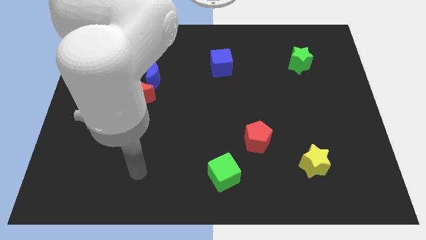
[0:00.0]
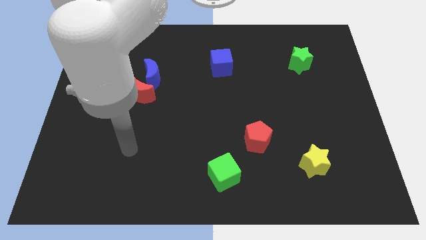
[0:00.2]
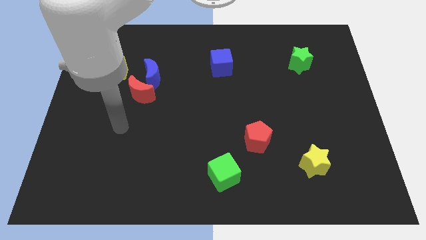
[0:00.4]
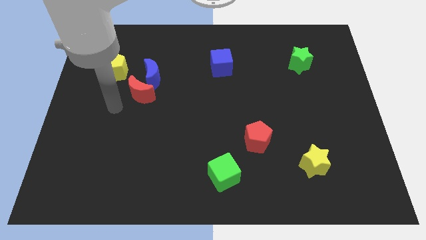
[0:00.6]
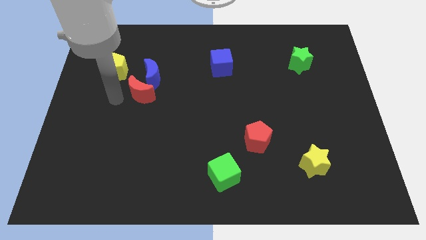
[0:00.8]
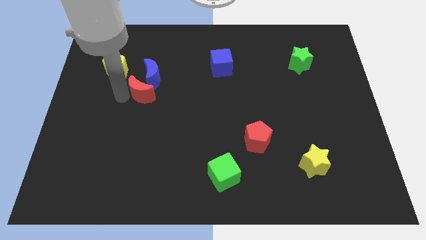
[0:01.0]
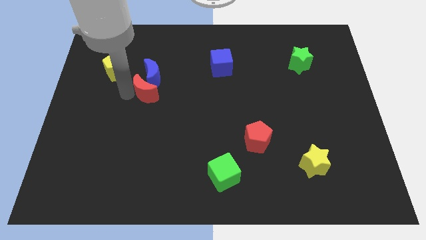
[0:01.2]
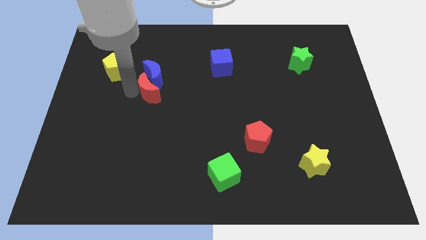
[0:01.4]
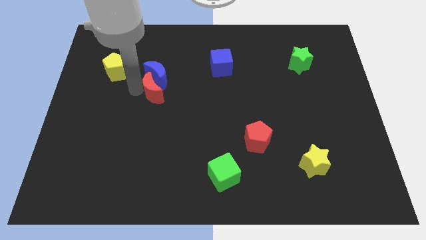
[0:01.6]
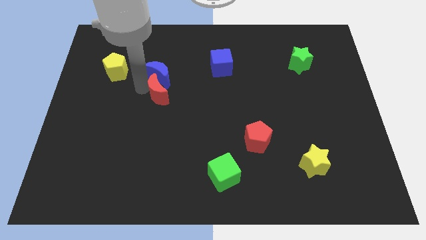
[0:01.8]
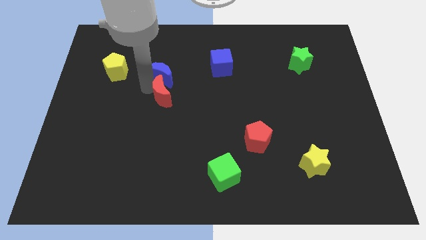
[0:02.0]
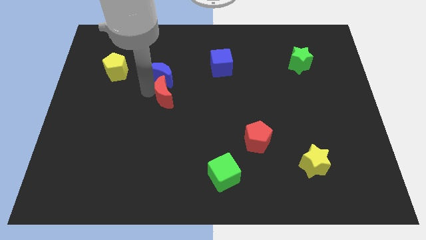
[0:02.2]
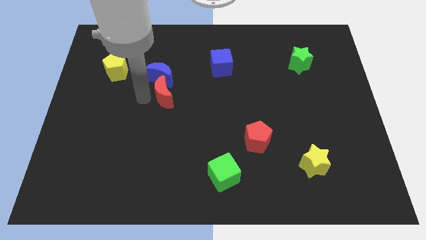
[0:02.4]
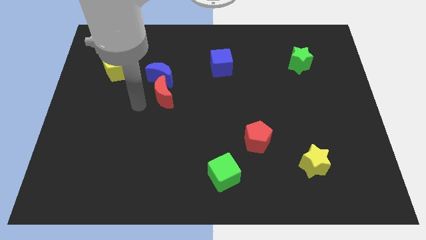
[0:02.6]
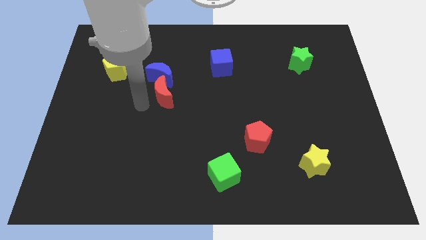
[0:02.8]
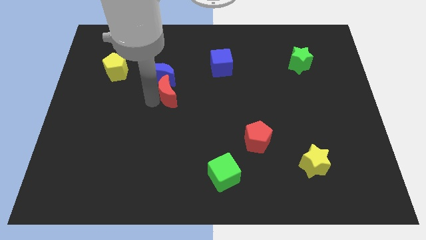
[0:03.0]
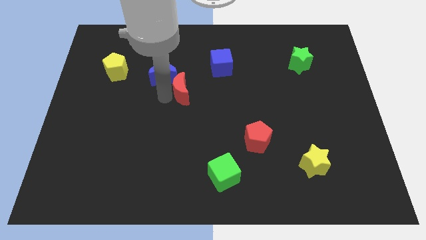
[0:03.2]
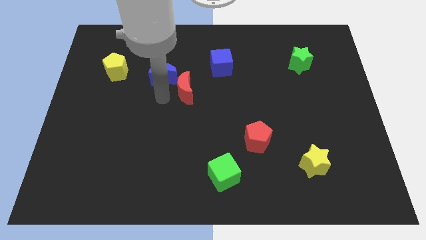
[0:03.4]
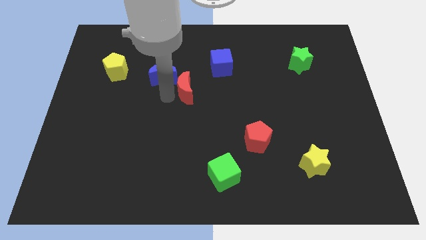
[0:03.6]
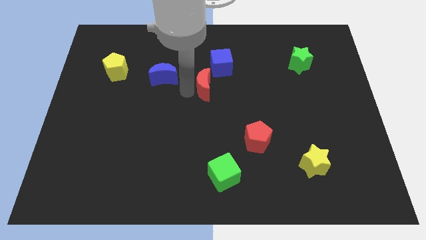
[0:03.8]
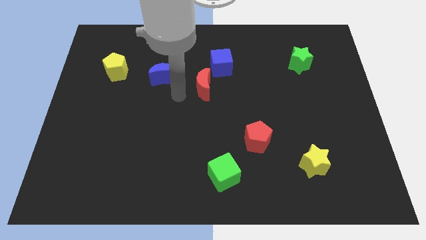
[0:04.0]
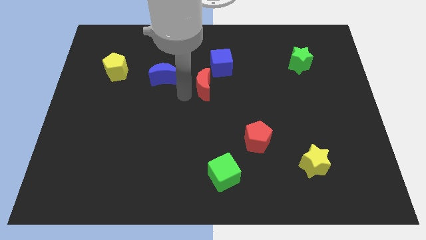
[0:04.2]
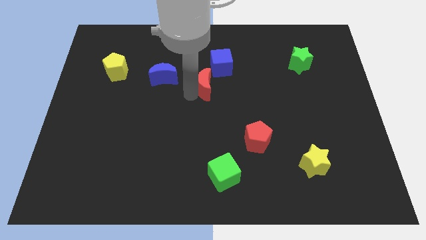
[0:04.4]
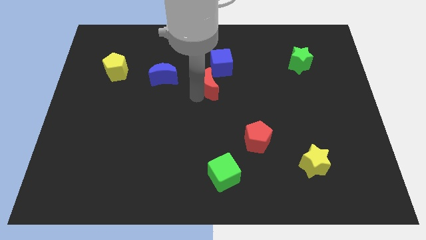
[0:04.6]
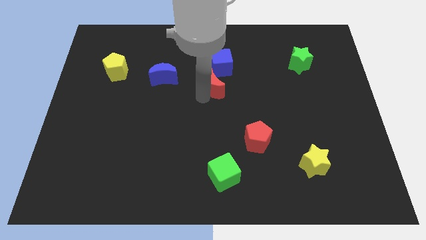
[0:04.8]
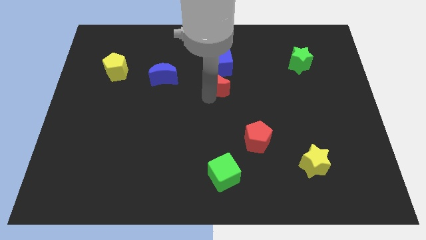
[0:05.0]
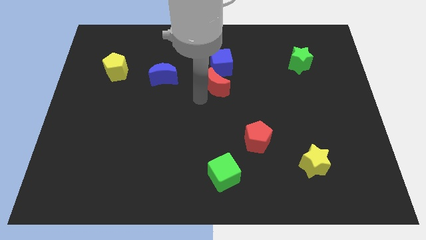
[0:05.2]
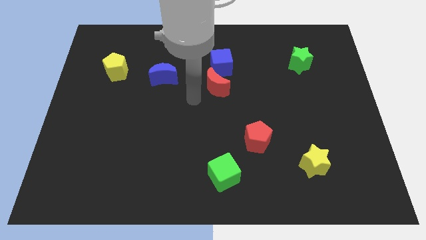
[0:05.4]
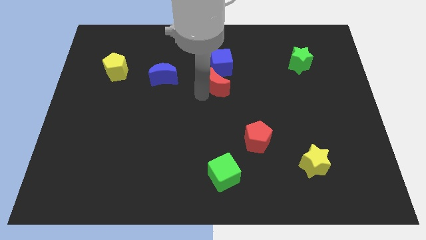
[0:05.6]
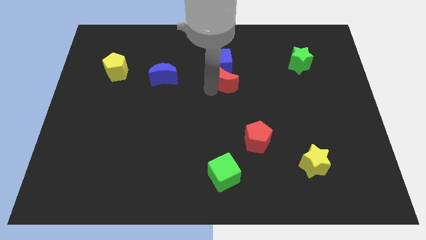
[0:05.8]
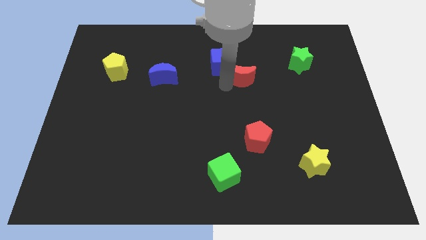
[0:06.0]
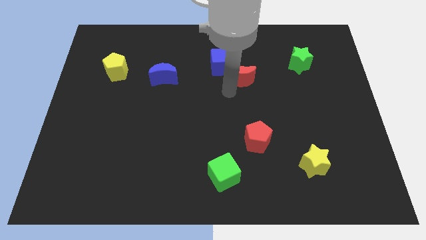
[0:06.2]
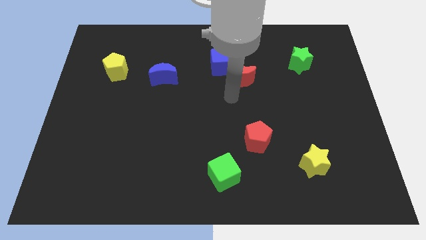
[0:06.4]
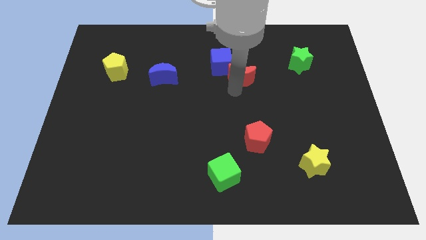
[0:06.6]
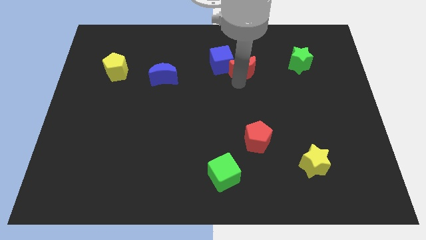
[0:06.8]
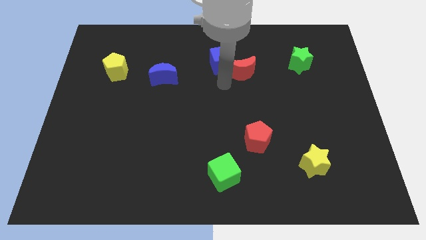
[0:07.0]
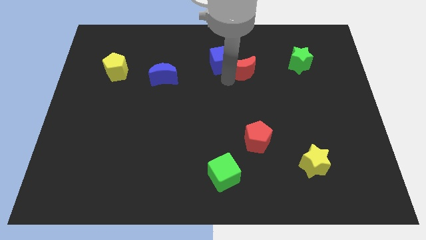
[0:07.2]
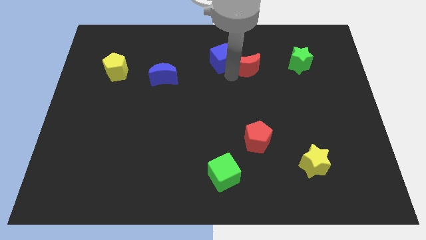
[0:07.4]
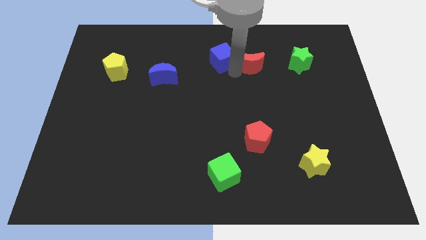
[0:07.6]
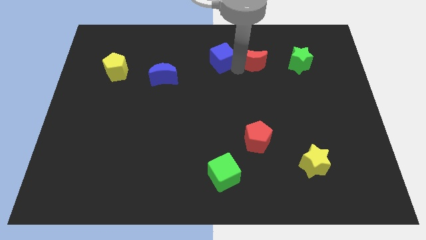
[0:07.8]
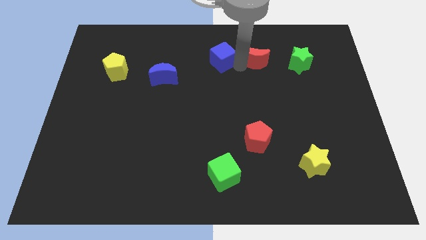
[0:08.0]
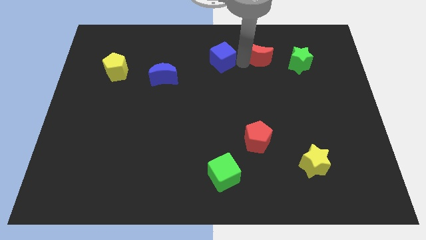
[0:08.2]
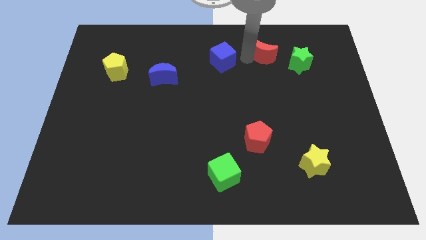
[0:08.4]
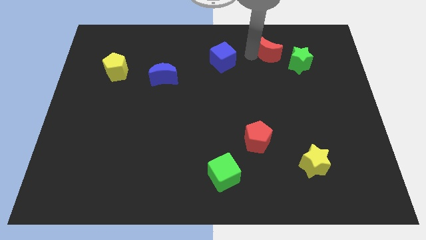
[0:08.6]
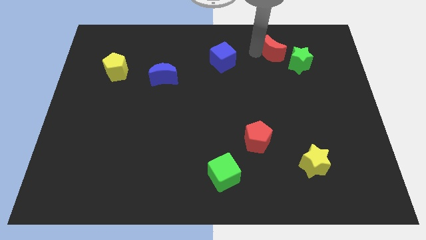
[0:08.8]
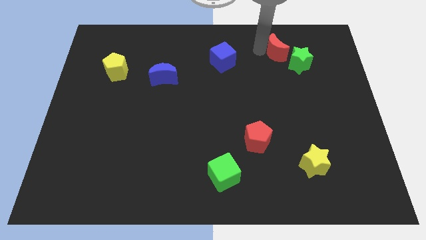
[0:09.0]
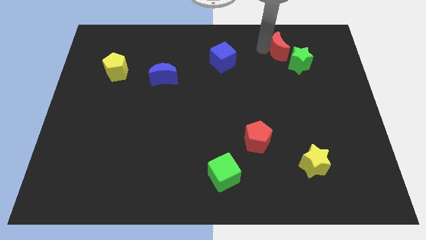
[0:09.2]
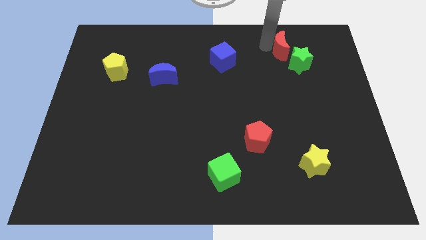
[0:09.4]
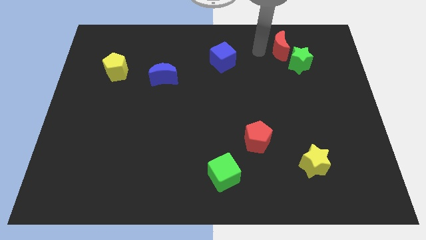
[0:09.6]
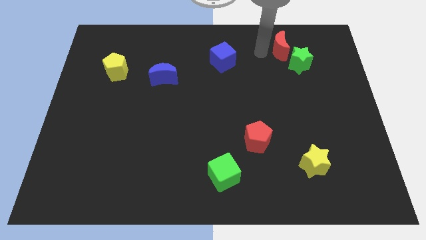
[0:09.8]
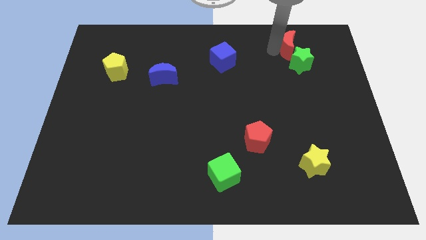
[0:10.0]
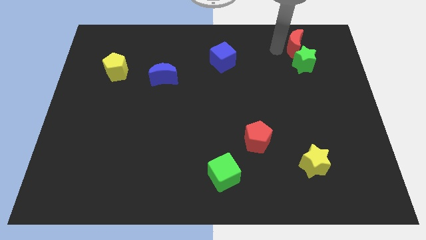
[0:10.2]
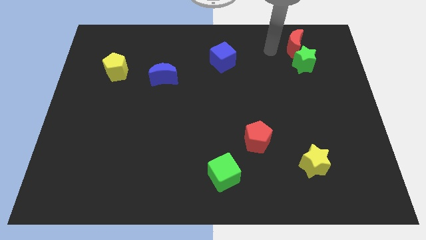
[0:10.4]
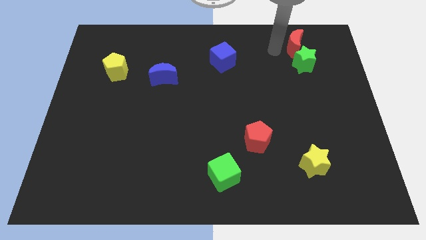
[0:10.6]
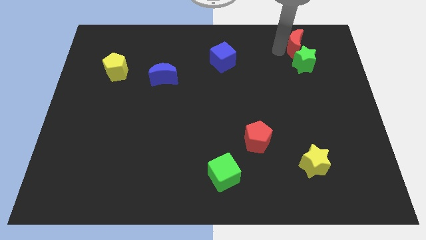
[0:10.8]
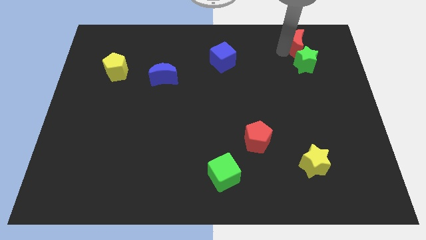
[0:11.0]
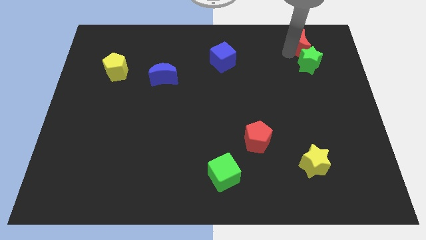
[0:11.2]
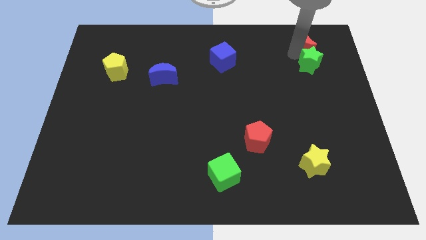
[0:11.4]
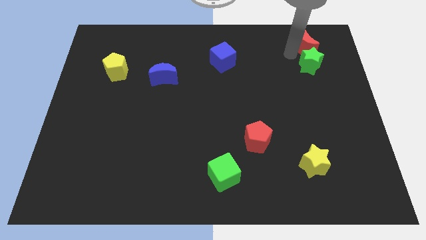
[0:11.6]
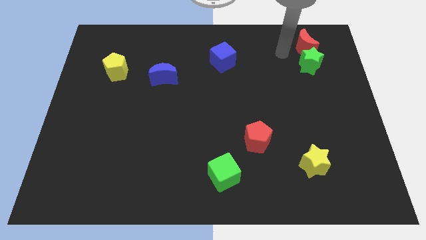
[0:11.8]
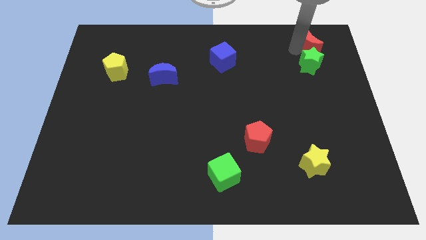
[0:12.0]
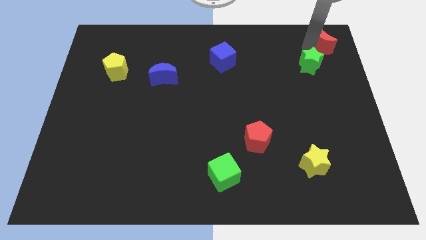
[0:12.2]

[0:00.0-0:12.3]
move the red moon to the top right corner
